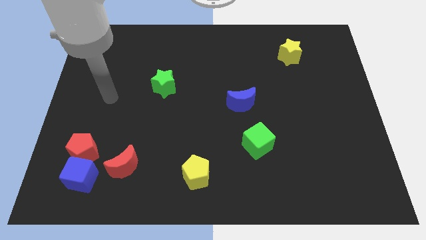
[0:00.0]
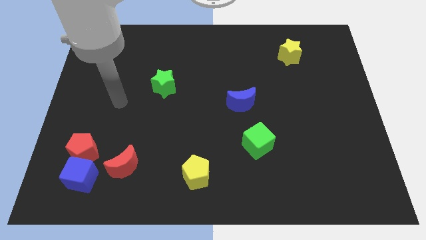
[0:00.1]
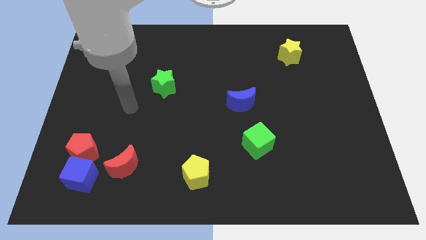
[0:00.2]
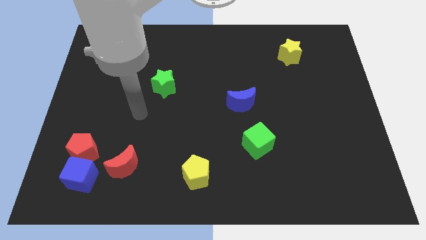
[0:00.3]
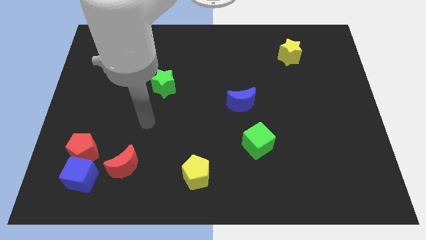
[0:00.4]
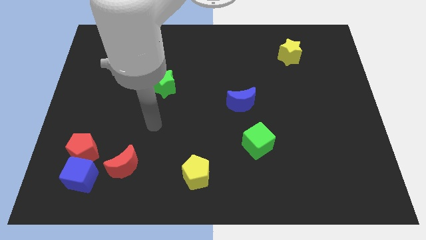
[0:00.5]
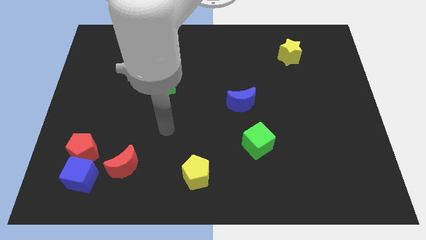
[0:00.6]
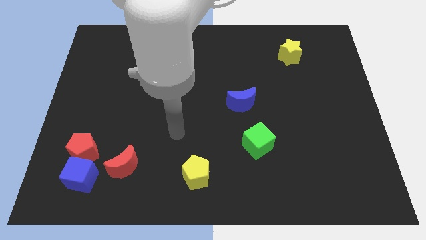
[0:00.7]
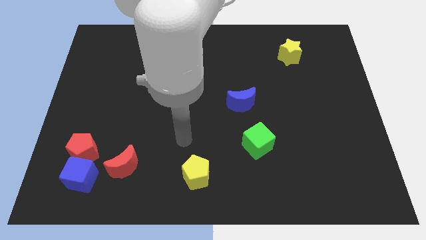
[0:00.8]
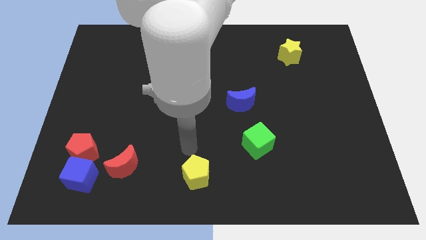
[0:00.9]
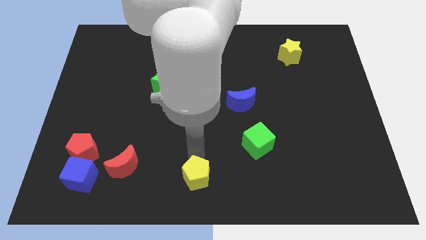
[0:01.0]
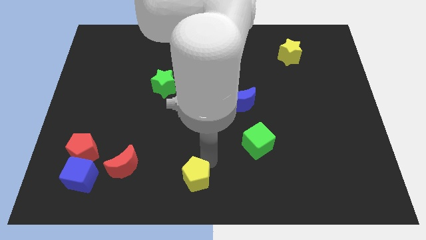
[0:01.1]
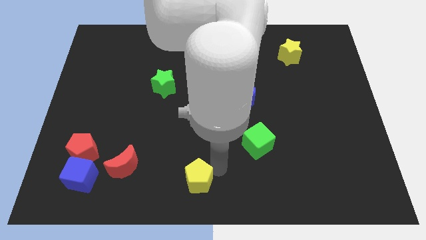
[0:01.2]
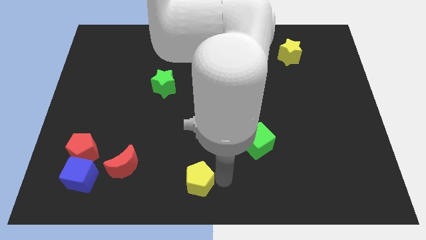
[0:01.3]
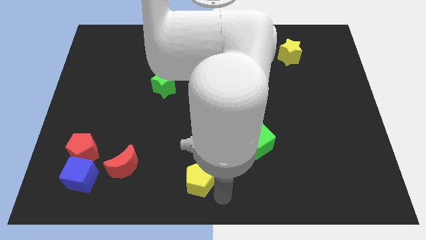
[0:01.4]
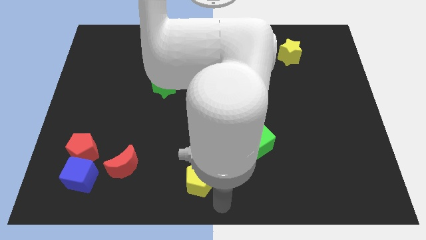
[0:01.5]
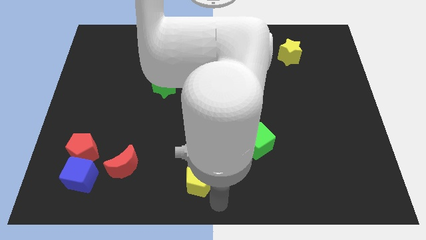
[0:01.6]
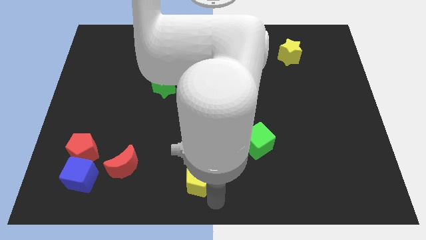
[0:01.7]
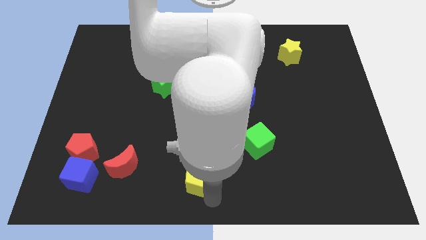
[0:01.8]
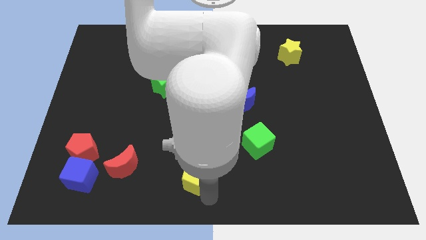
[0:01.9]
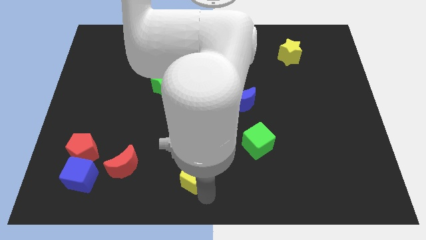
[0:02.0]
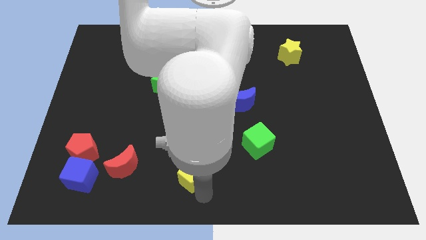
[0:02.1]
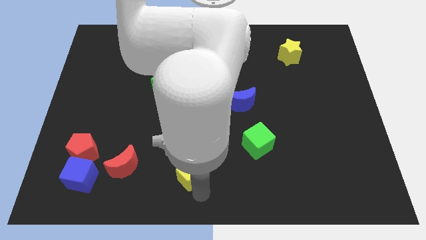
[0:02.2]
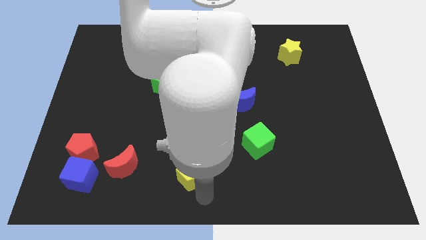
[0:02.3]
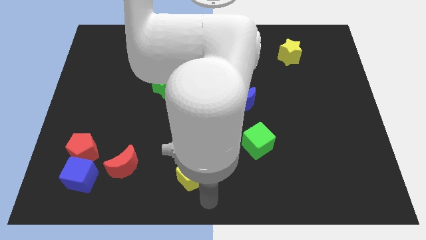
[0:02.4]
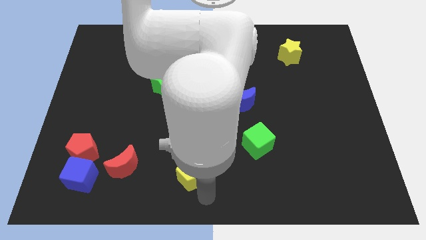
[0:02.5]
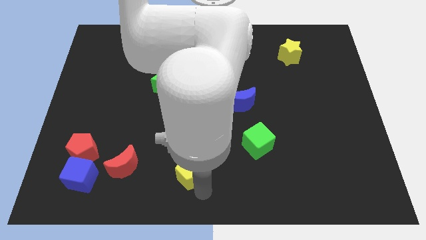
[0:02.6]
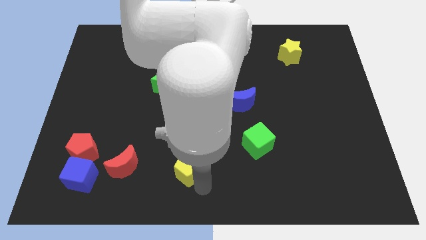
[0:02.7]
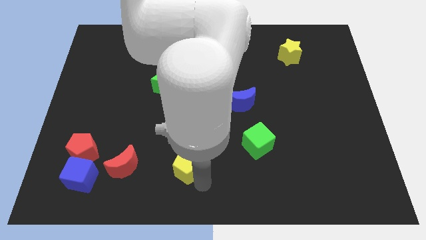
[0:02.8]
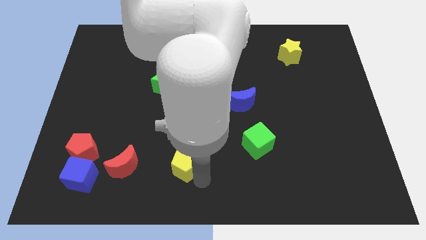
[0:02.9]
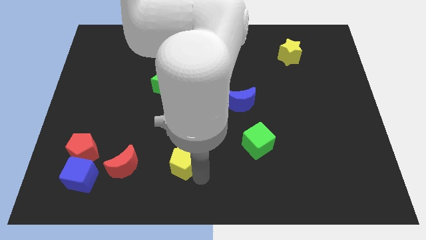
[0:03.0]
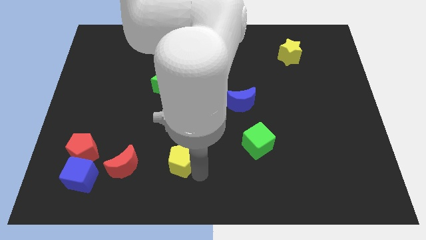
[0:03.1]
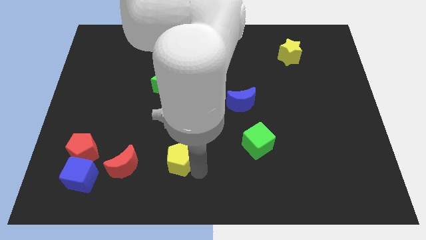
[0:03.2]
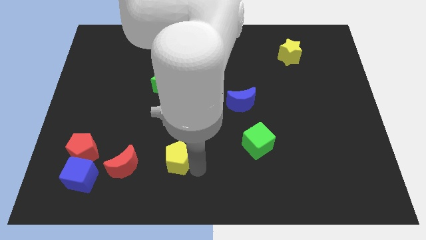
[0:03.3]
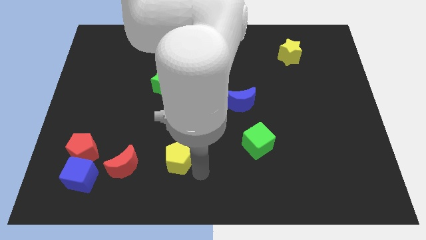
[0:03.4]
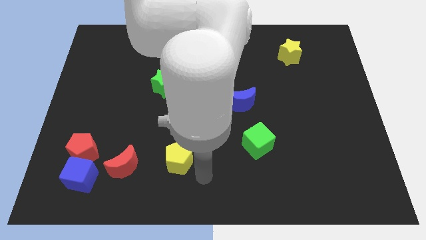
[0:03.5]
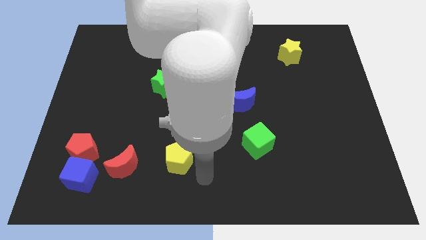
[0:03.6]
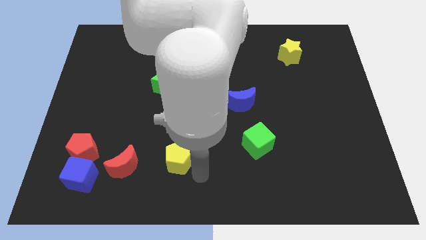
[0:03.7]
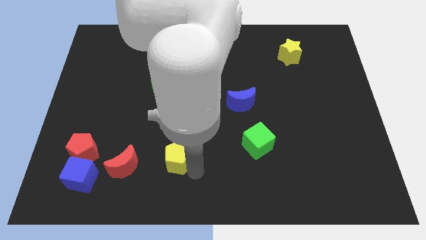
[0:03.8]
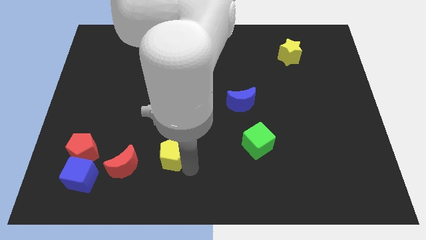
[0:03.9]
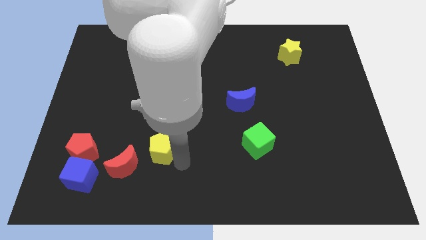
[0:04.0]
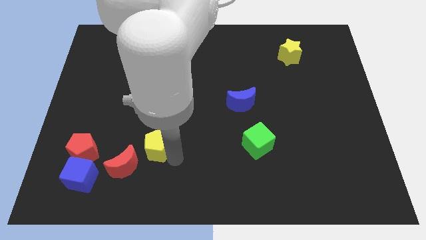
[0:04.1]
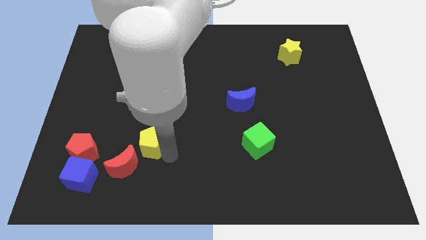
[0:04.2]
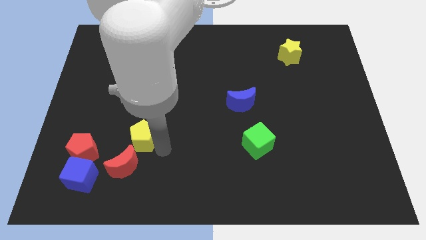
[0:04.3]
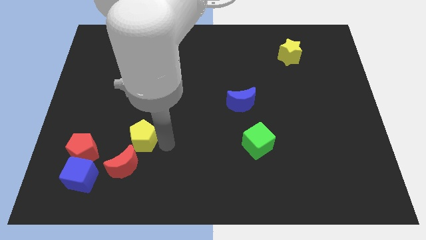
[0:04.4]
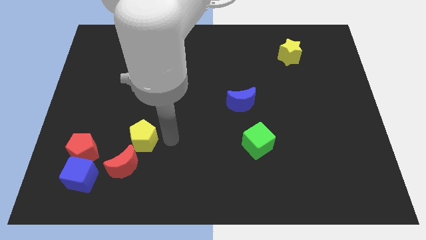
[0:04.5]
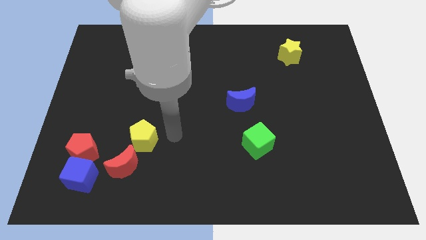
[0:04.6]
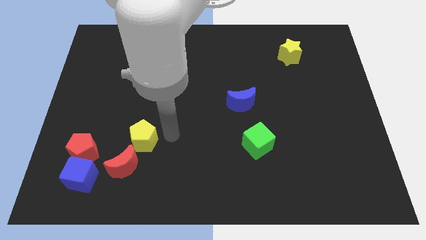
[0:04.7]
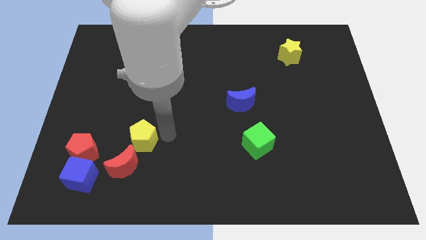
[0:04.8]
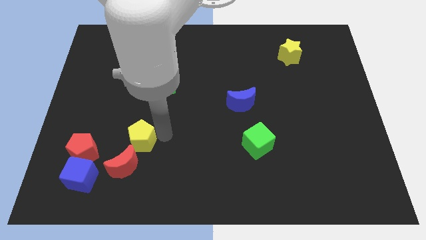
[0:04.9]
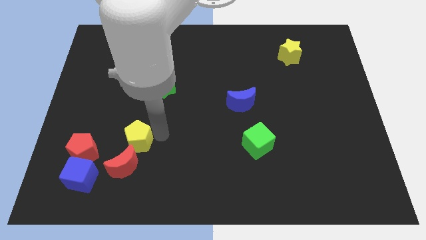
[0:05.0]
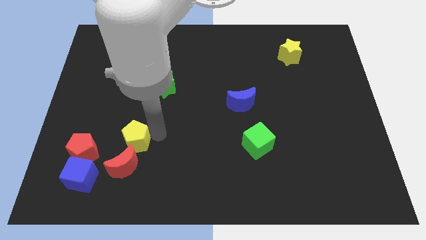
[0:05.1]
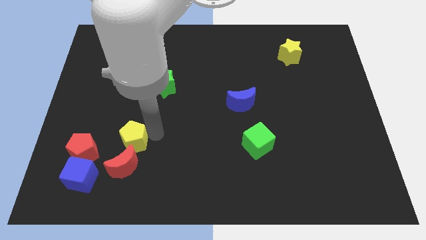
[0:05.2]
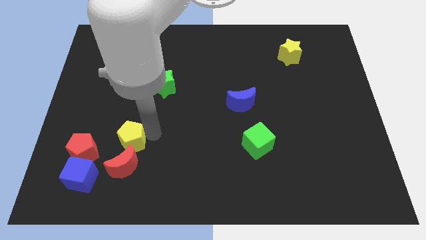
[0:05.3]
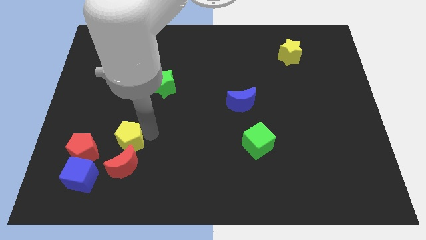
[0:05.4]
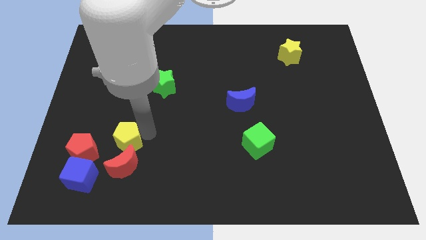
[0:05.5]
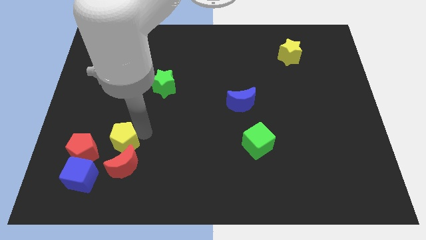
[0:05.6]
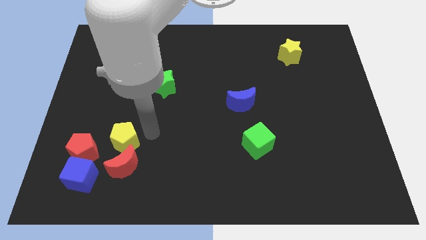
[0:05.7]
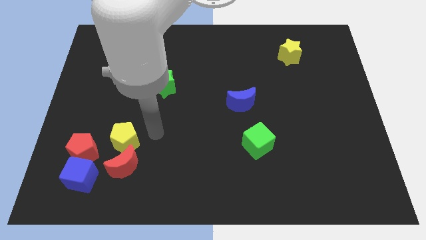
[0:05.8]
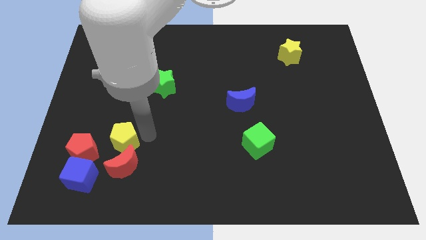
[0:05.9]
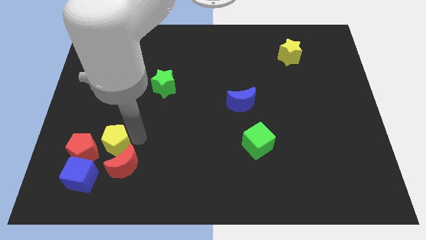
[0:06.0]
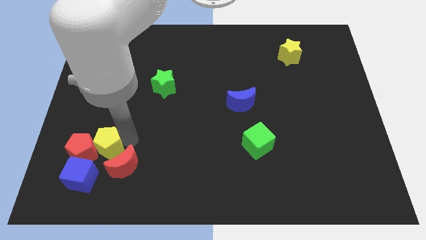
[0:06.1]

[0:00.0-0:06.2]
push the yellow pentagon close to the red pentagon
